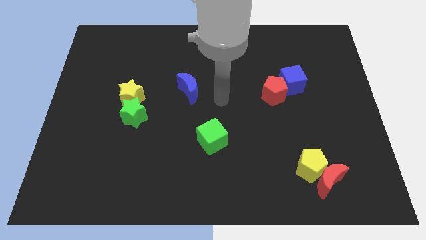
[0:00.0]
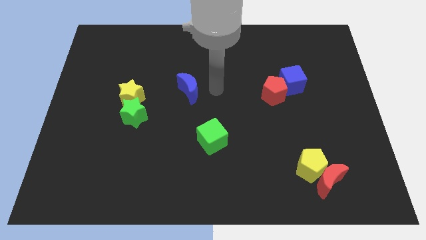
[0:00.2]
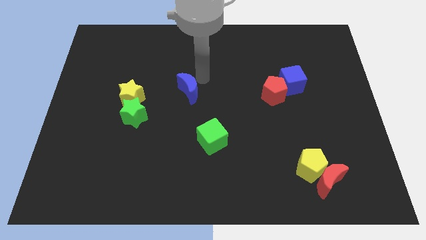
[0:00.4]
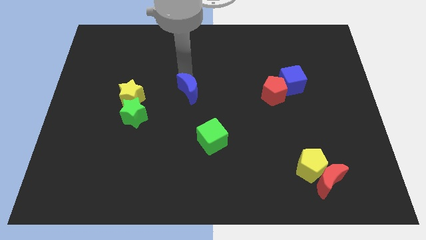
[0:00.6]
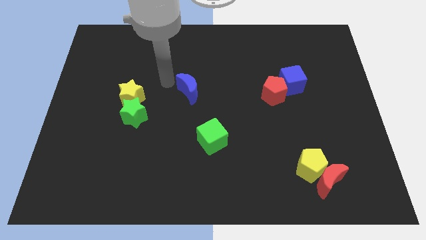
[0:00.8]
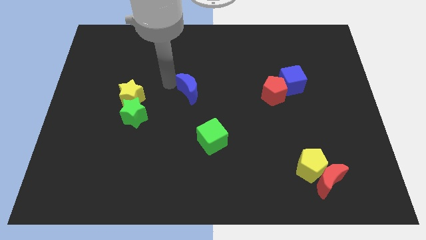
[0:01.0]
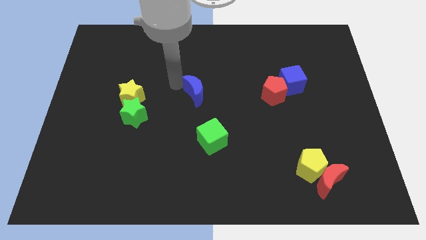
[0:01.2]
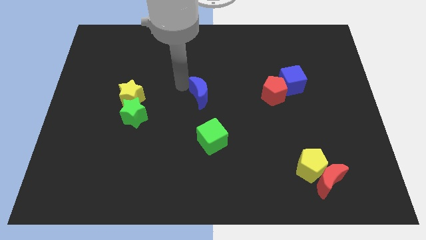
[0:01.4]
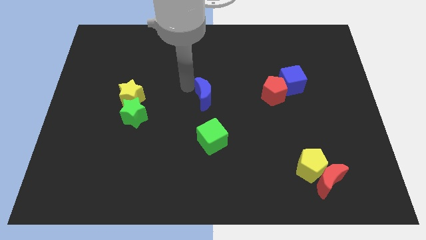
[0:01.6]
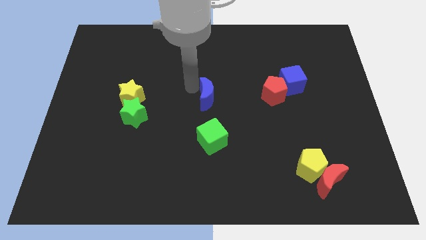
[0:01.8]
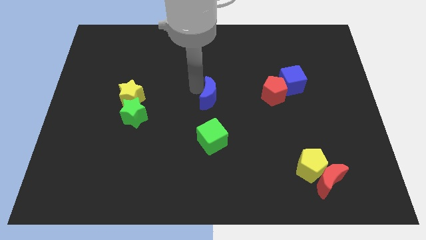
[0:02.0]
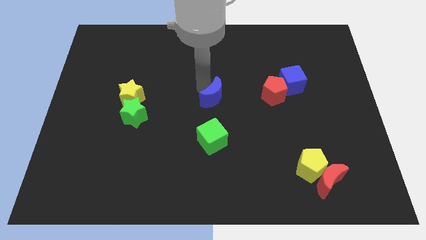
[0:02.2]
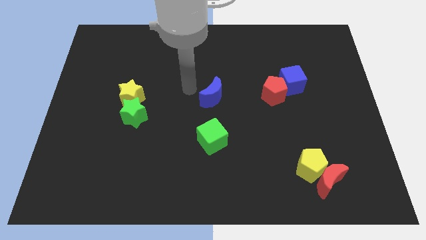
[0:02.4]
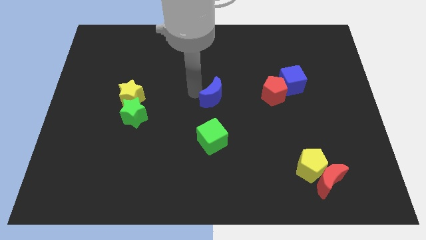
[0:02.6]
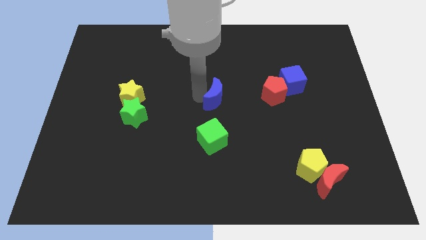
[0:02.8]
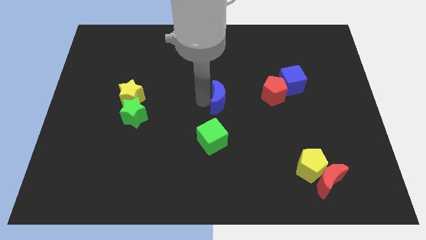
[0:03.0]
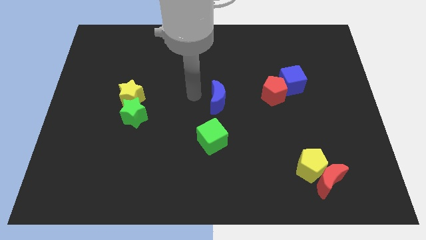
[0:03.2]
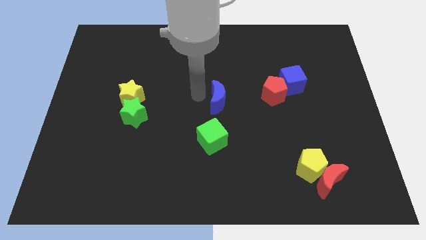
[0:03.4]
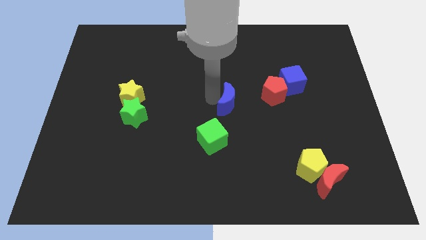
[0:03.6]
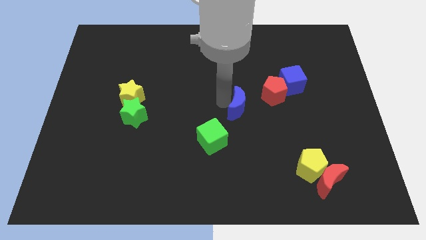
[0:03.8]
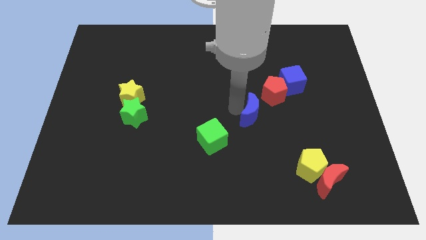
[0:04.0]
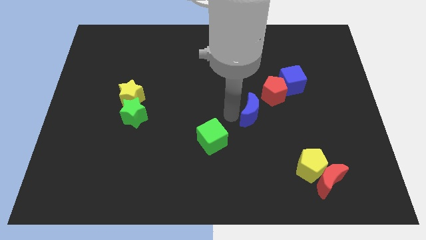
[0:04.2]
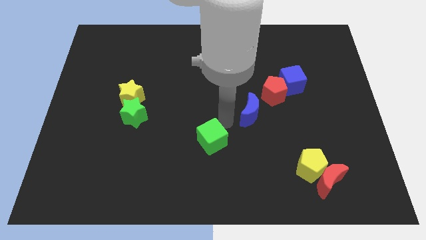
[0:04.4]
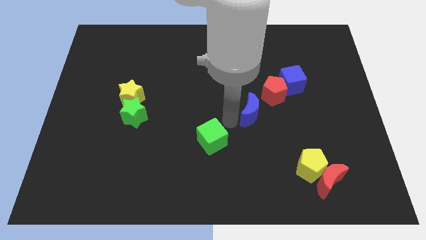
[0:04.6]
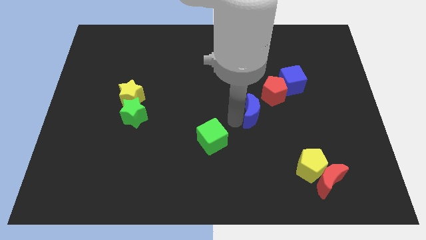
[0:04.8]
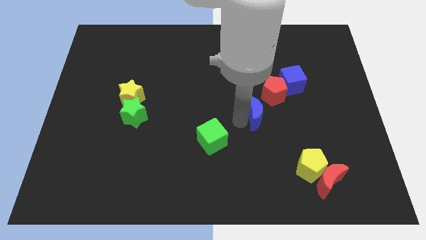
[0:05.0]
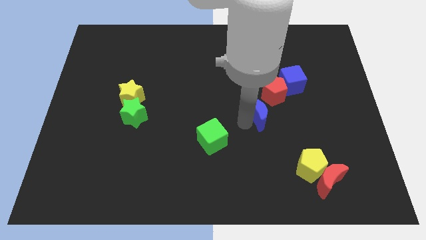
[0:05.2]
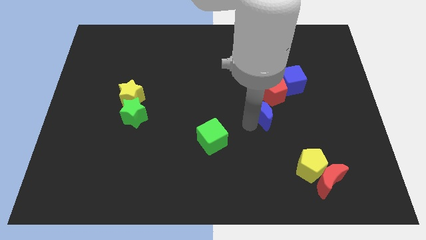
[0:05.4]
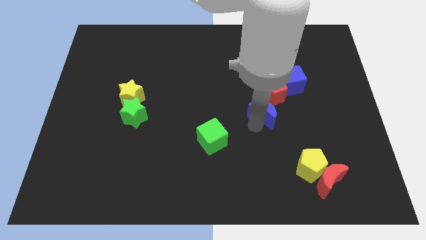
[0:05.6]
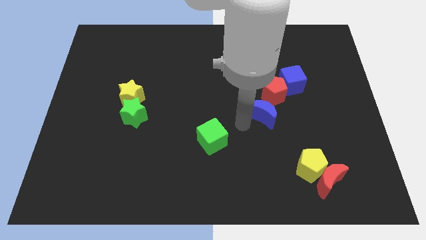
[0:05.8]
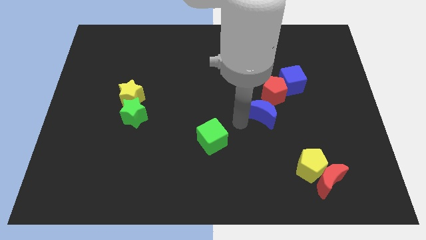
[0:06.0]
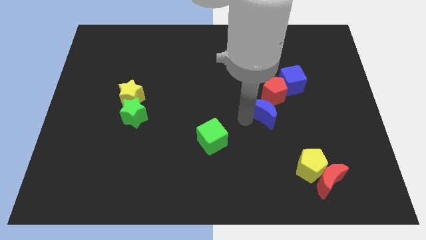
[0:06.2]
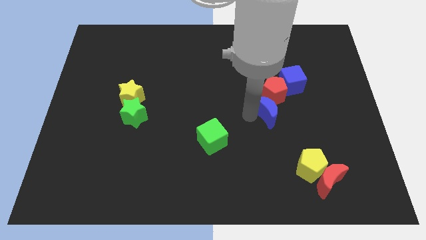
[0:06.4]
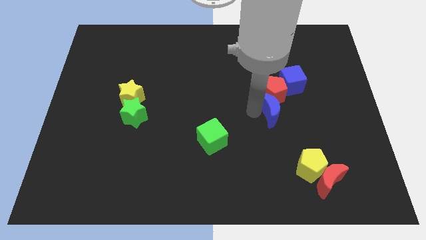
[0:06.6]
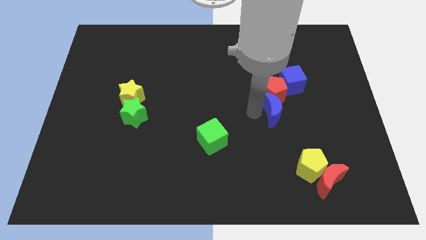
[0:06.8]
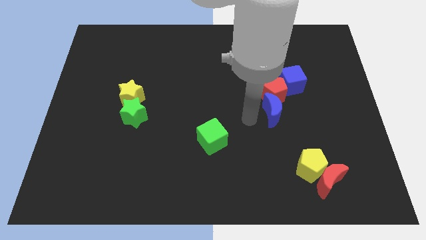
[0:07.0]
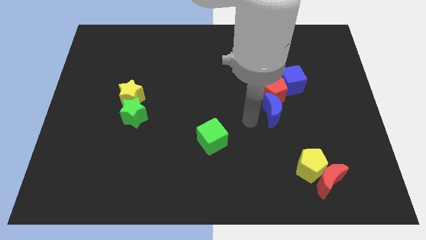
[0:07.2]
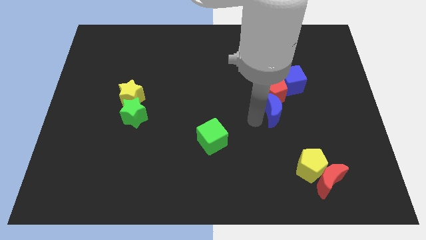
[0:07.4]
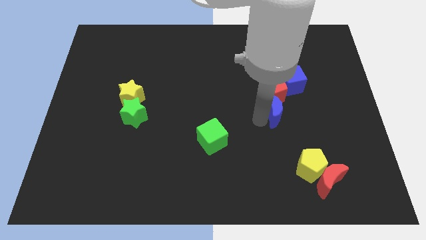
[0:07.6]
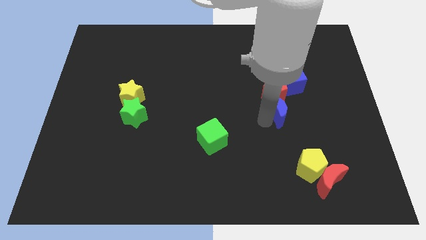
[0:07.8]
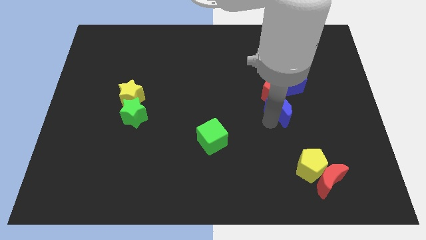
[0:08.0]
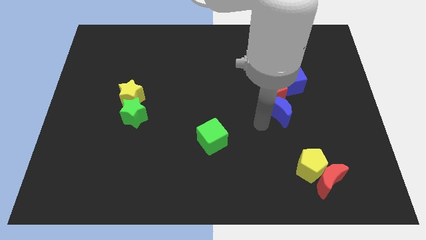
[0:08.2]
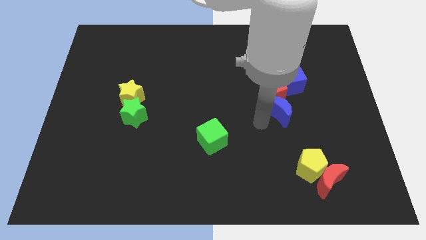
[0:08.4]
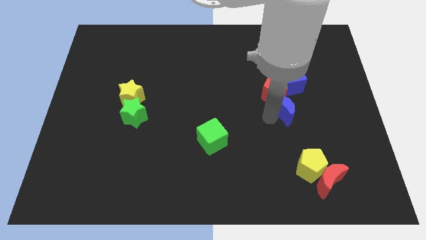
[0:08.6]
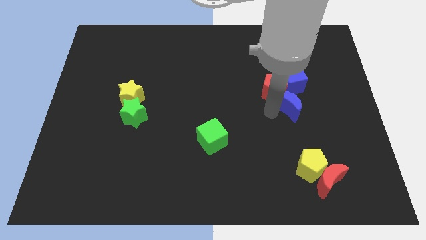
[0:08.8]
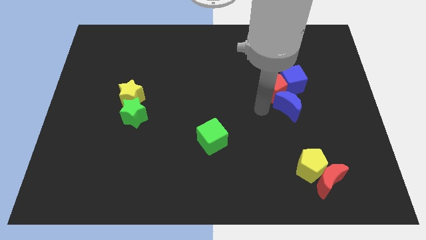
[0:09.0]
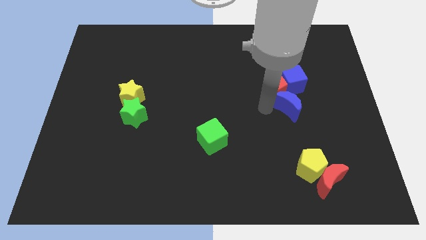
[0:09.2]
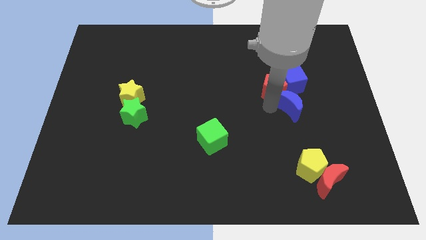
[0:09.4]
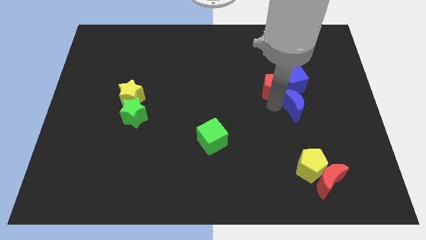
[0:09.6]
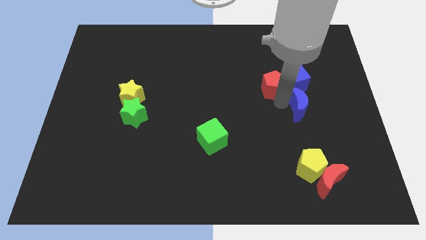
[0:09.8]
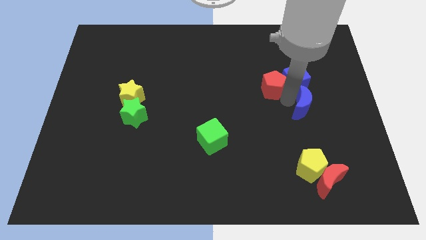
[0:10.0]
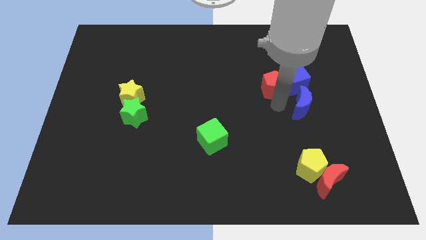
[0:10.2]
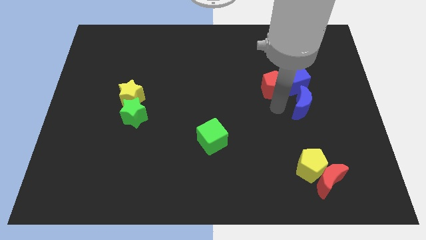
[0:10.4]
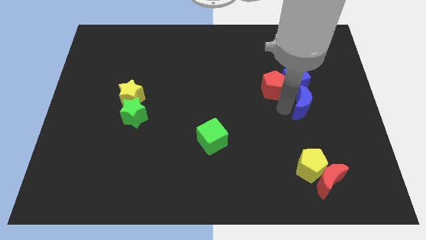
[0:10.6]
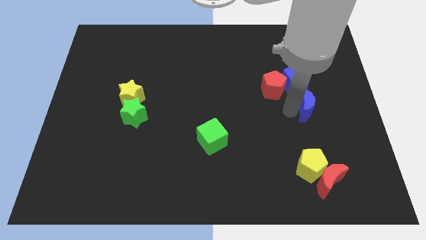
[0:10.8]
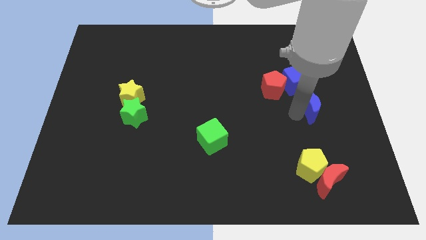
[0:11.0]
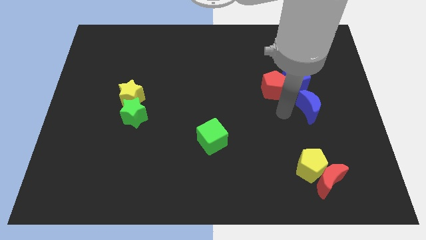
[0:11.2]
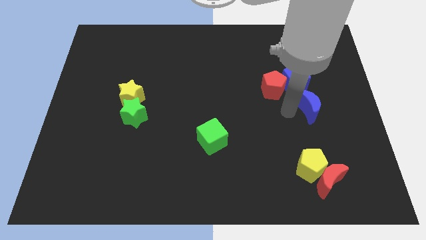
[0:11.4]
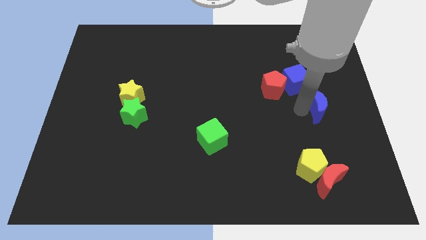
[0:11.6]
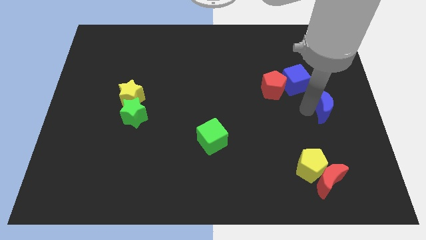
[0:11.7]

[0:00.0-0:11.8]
slide the blue moon to the center right

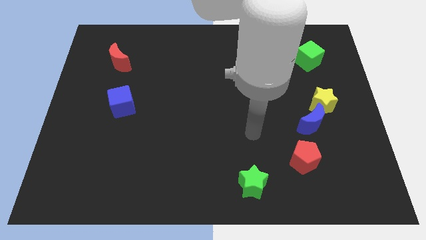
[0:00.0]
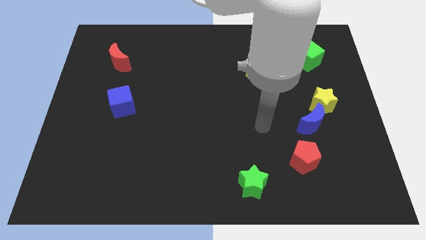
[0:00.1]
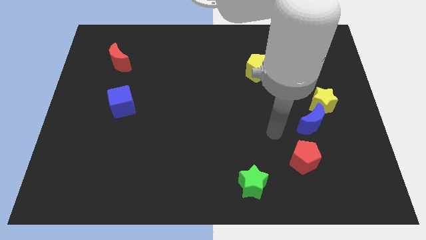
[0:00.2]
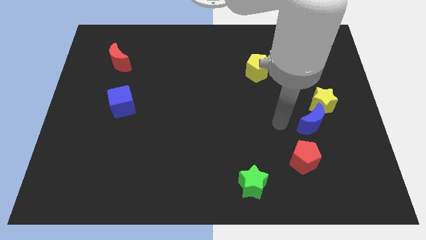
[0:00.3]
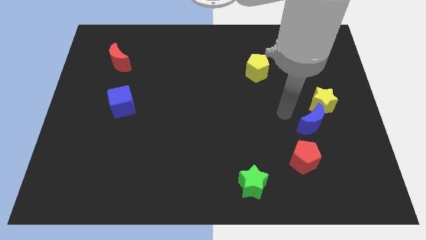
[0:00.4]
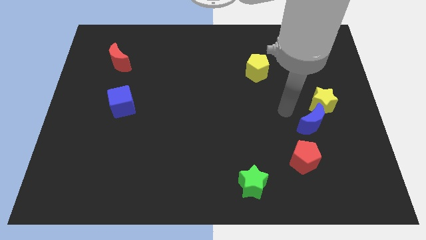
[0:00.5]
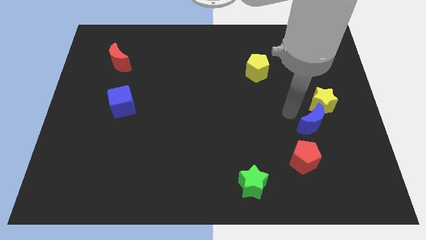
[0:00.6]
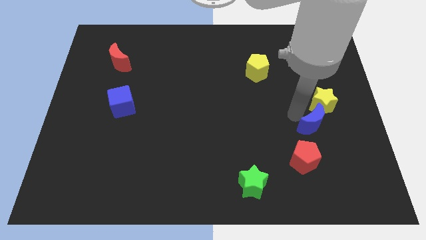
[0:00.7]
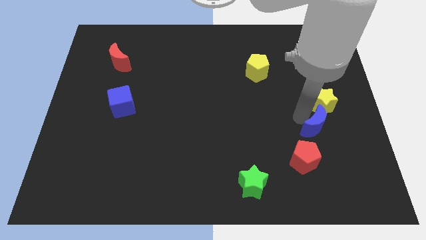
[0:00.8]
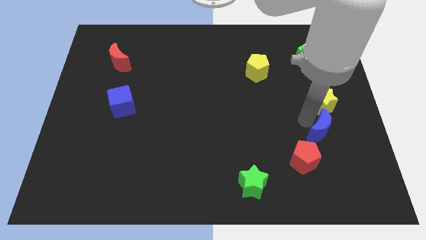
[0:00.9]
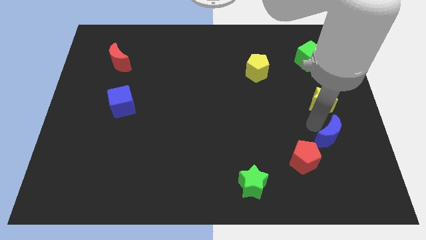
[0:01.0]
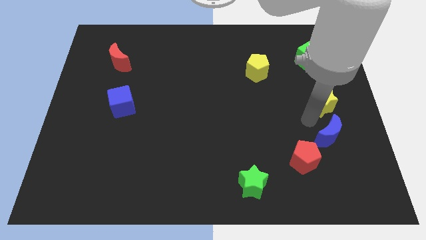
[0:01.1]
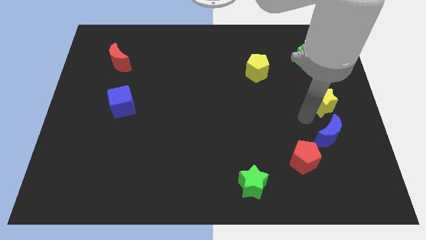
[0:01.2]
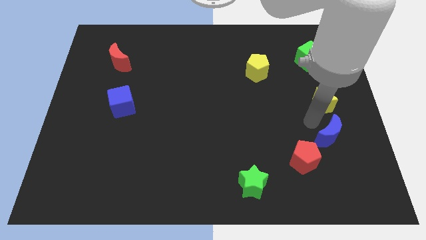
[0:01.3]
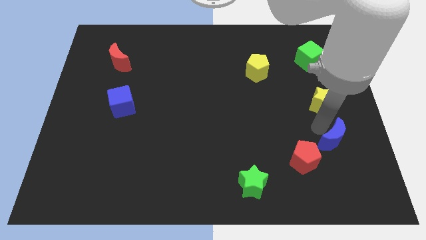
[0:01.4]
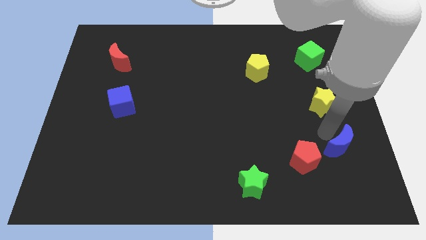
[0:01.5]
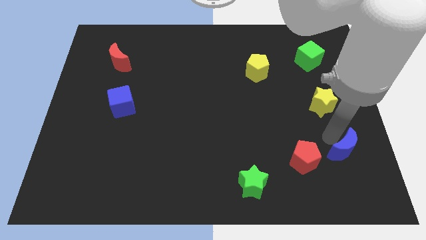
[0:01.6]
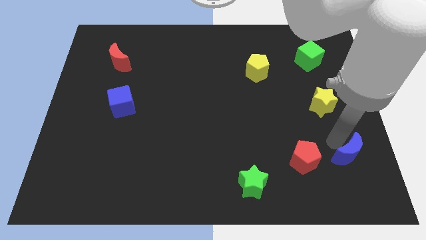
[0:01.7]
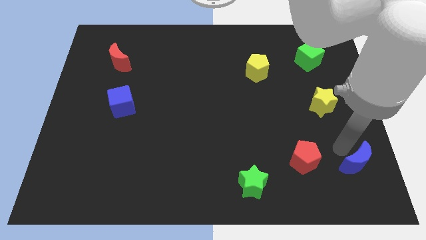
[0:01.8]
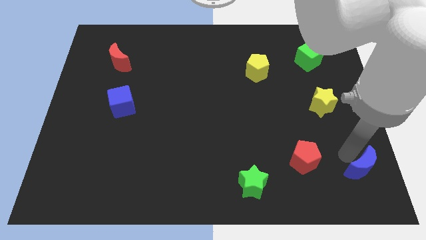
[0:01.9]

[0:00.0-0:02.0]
put the blue moon to the bottom right of the board
